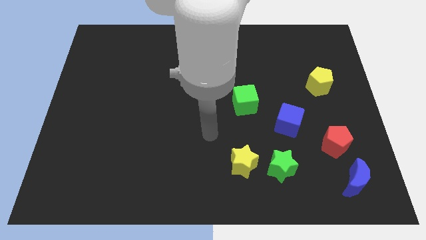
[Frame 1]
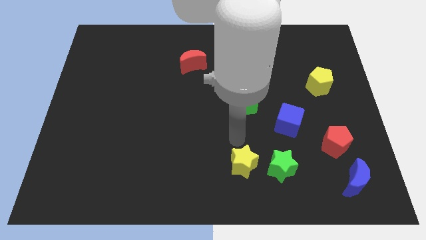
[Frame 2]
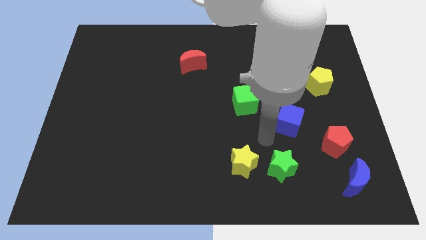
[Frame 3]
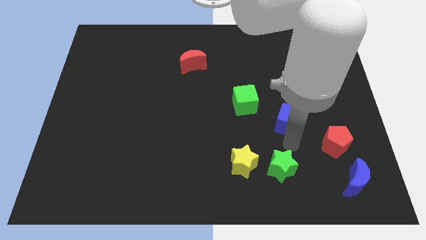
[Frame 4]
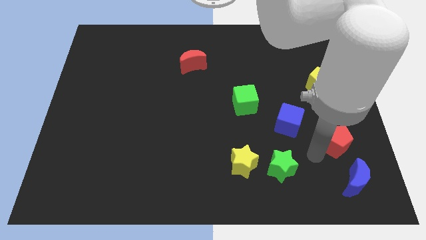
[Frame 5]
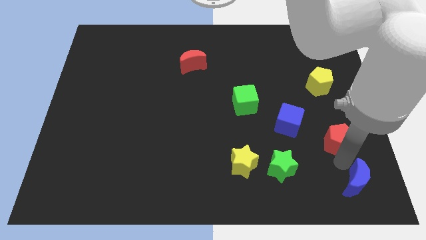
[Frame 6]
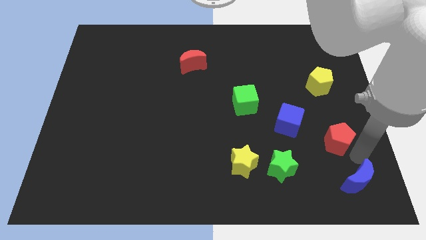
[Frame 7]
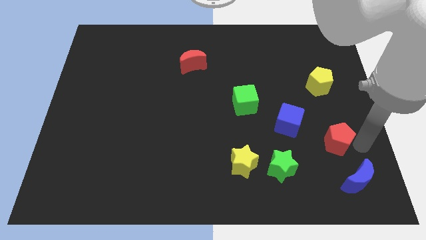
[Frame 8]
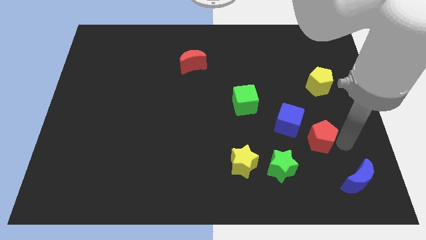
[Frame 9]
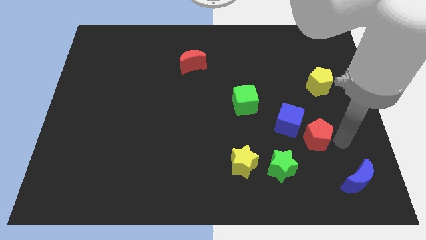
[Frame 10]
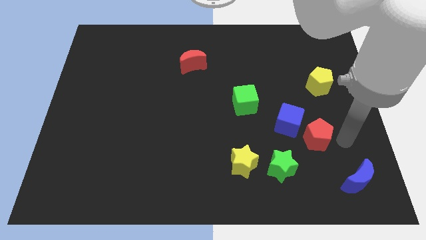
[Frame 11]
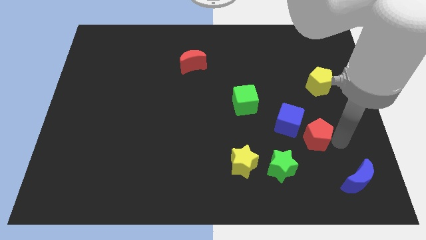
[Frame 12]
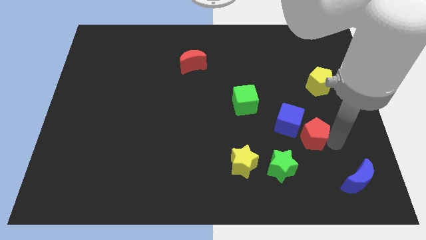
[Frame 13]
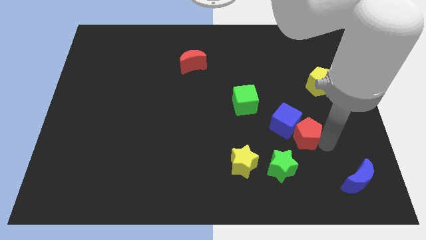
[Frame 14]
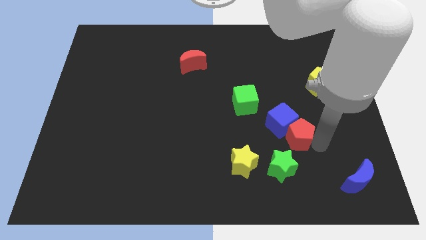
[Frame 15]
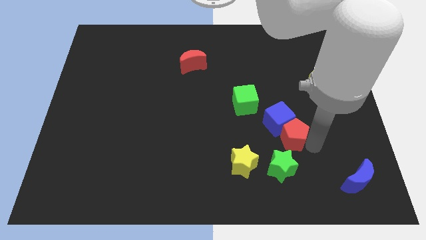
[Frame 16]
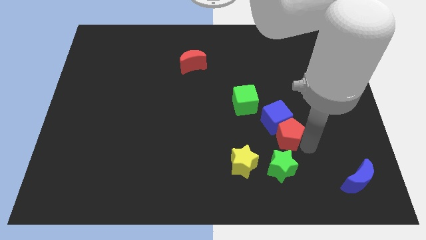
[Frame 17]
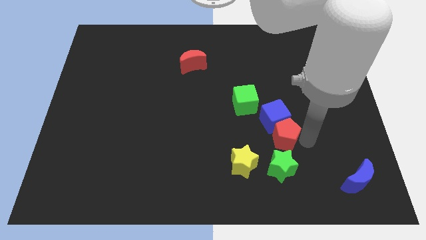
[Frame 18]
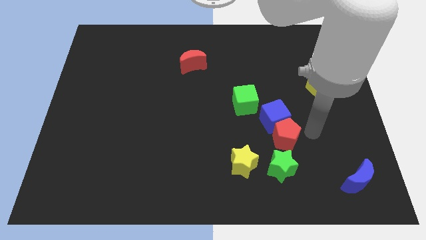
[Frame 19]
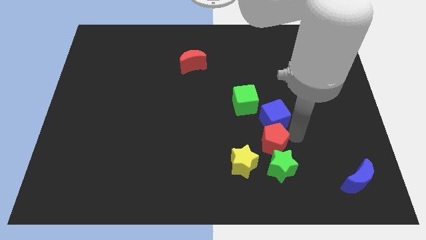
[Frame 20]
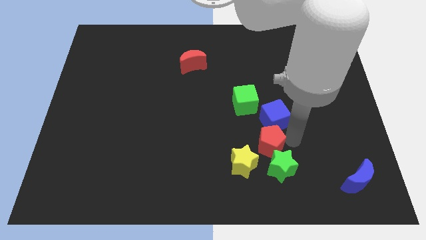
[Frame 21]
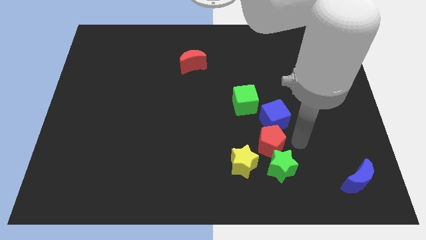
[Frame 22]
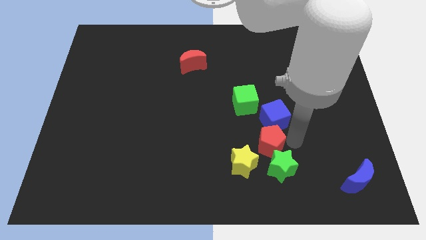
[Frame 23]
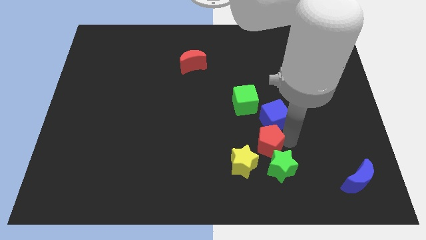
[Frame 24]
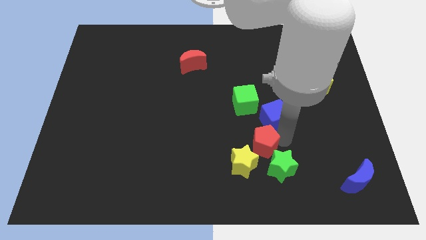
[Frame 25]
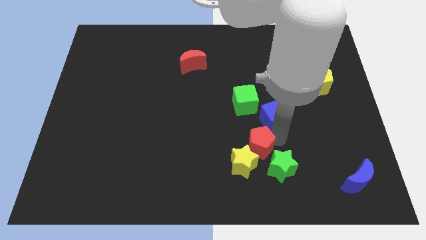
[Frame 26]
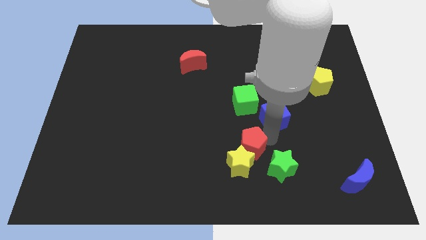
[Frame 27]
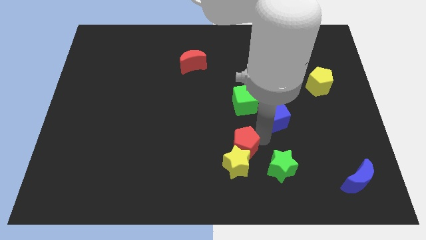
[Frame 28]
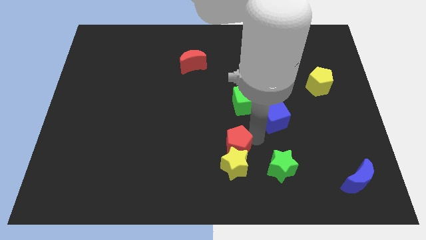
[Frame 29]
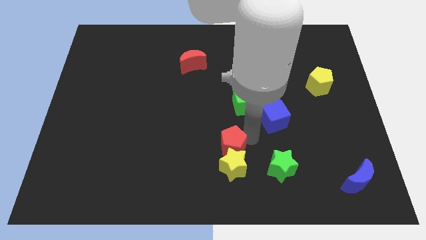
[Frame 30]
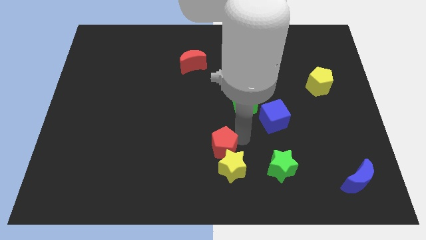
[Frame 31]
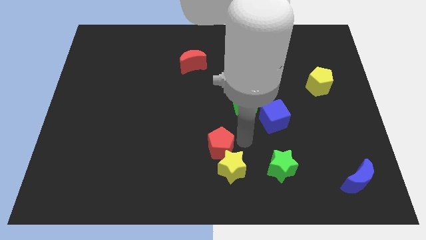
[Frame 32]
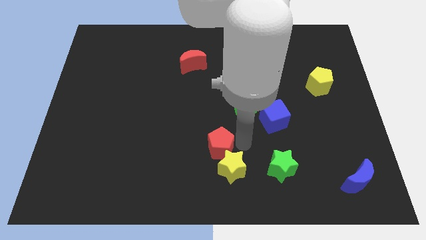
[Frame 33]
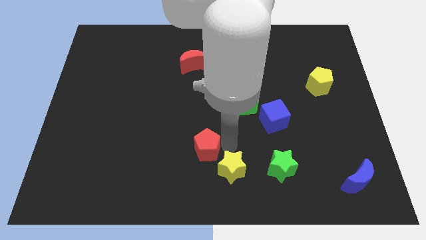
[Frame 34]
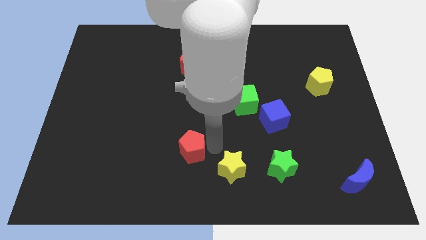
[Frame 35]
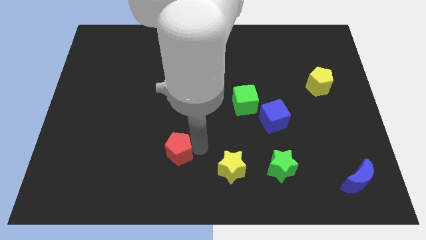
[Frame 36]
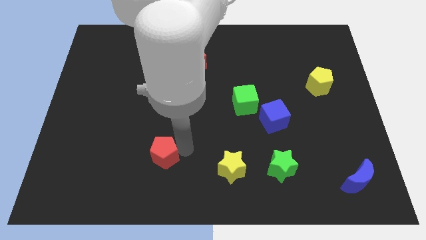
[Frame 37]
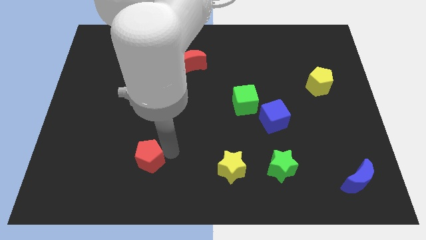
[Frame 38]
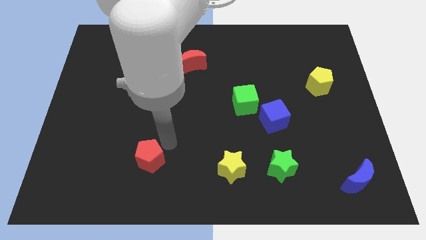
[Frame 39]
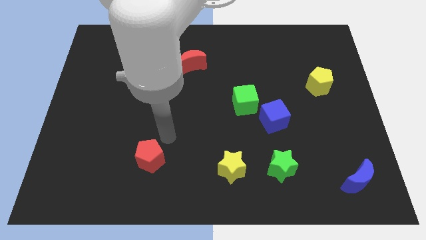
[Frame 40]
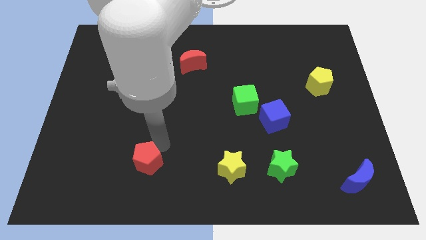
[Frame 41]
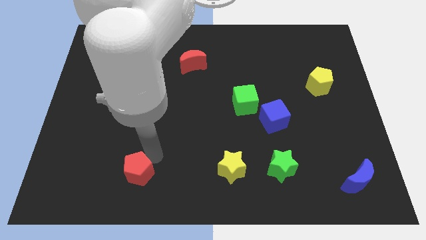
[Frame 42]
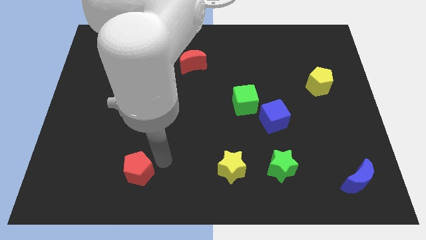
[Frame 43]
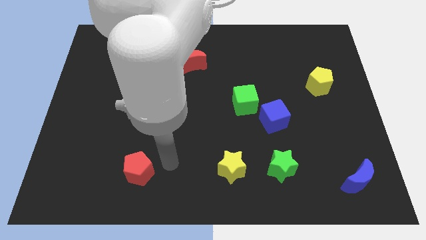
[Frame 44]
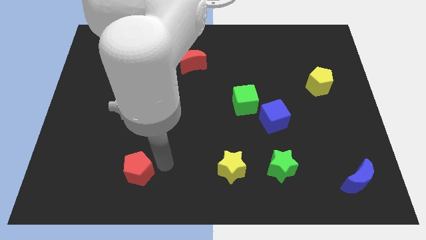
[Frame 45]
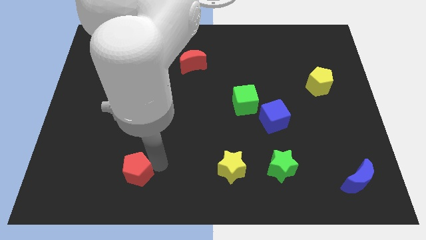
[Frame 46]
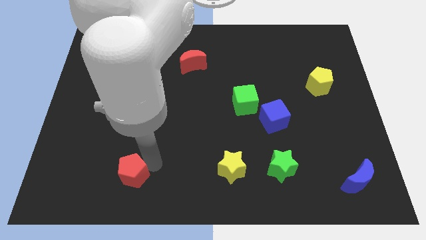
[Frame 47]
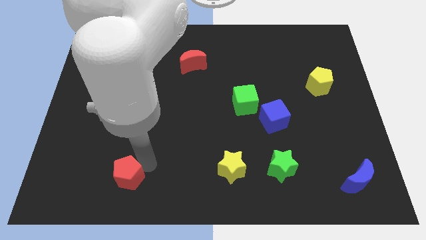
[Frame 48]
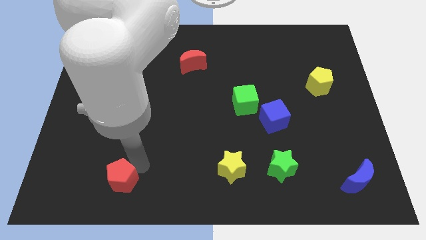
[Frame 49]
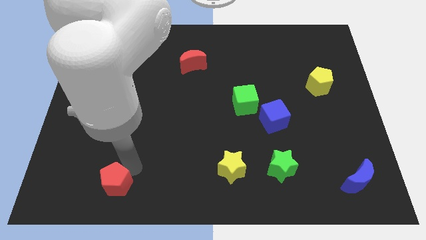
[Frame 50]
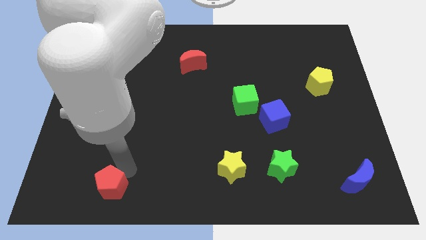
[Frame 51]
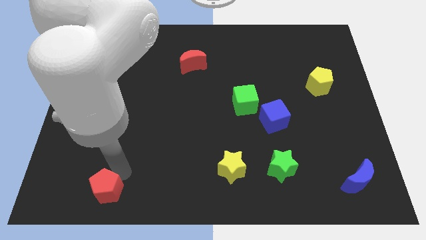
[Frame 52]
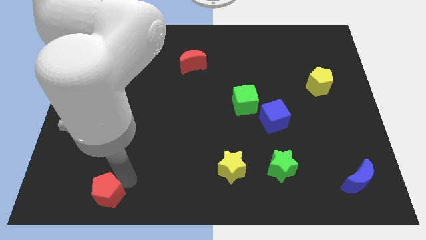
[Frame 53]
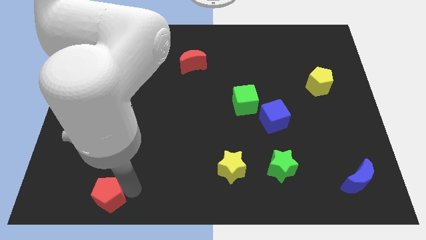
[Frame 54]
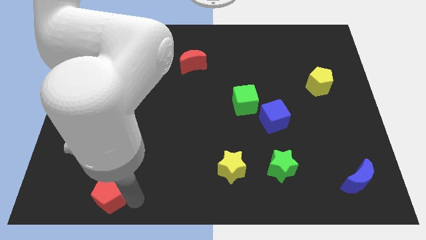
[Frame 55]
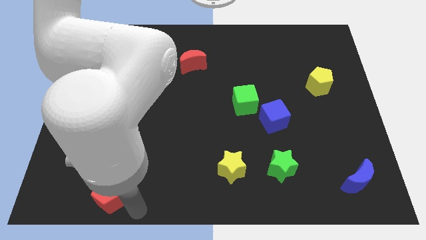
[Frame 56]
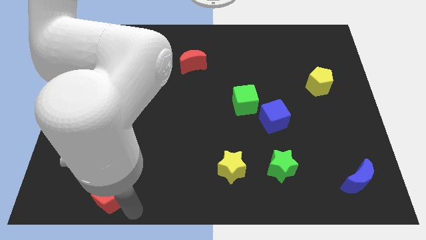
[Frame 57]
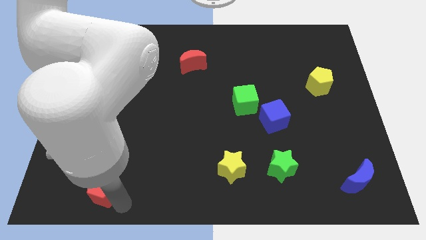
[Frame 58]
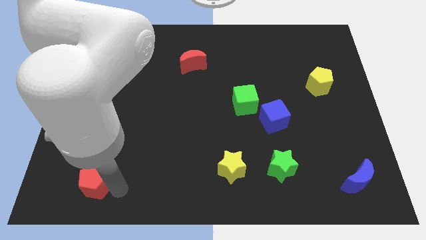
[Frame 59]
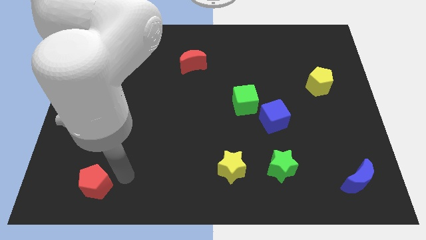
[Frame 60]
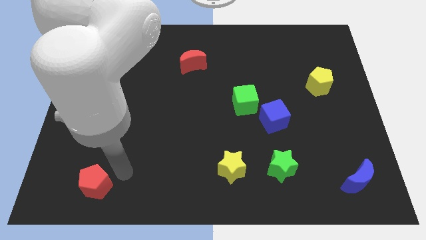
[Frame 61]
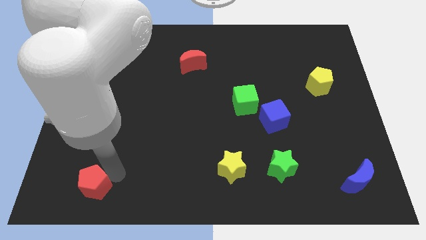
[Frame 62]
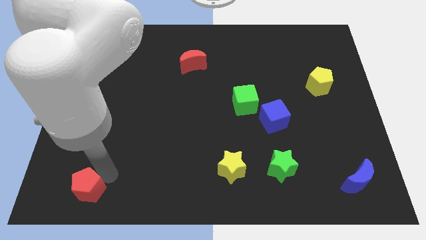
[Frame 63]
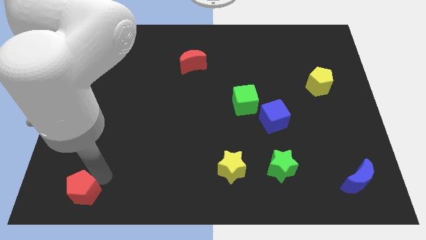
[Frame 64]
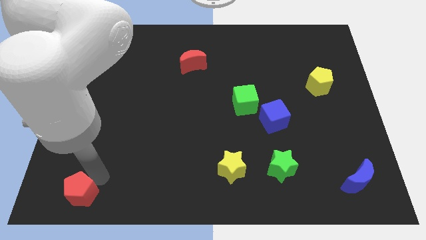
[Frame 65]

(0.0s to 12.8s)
move the red pentagon to the bottom left of the board
